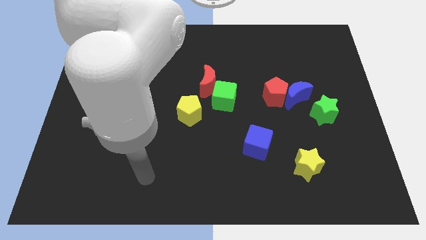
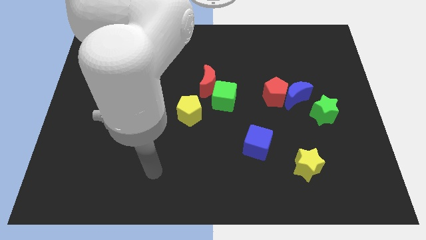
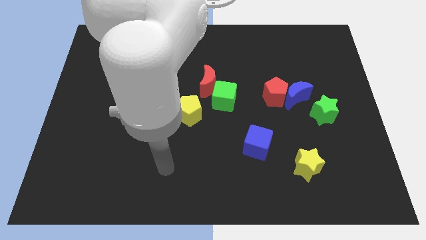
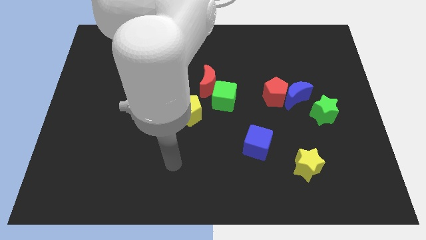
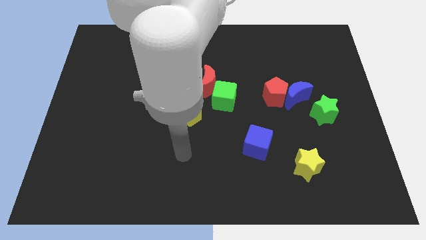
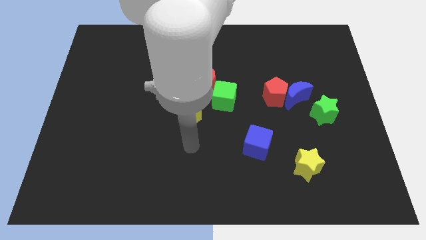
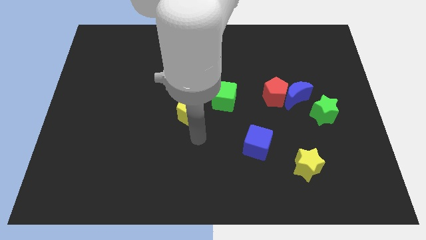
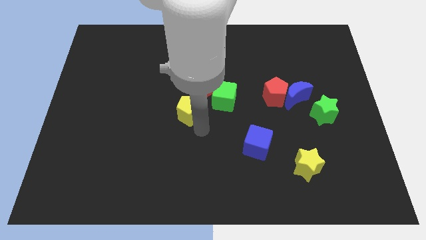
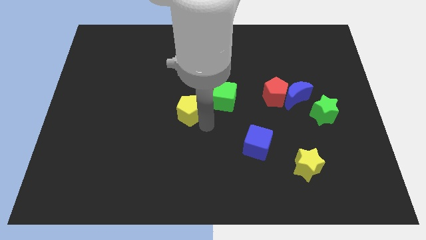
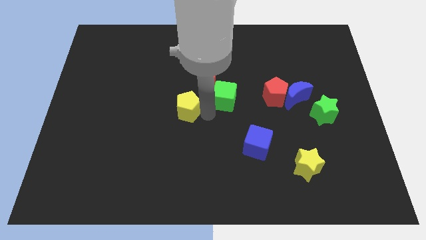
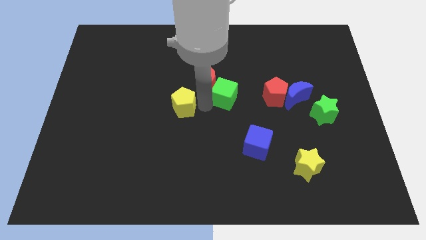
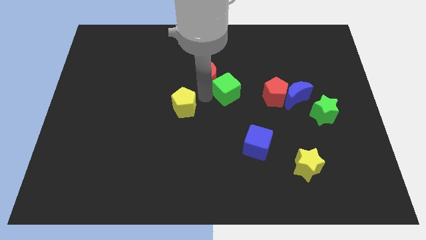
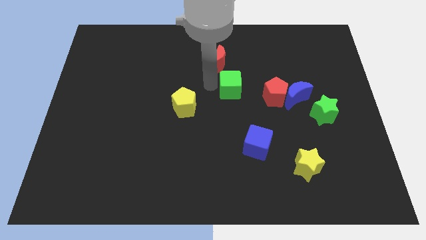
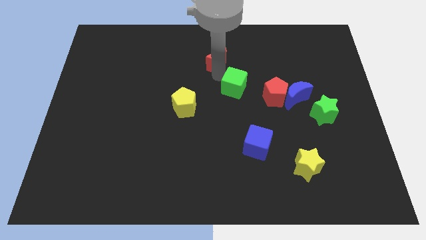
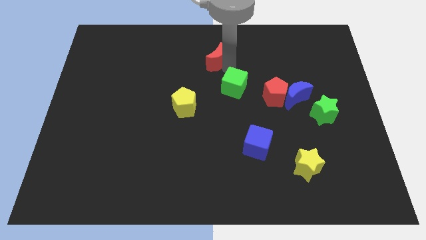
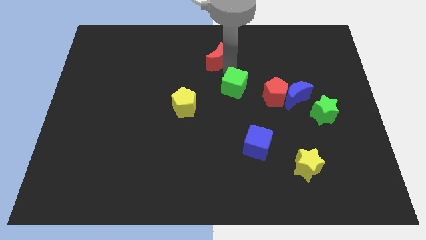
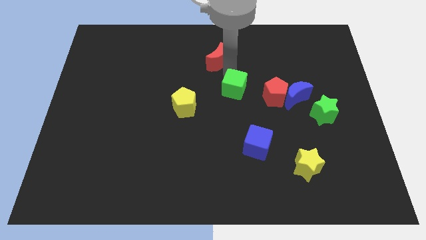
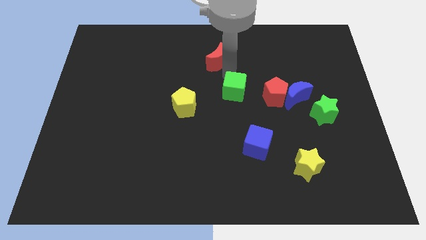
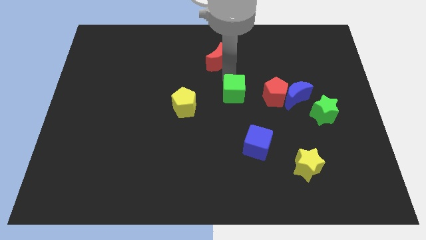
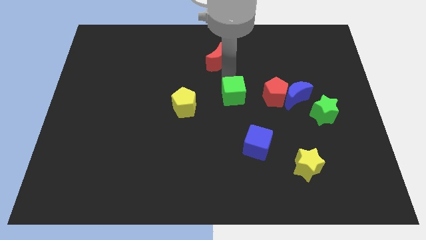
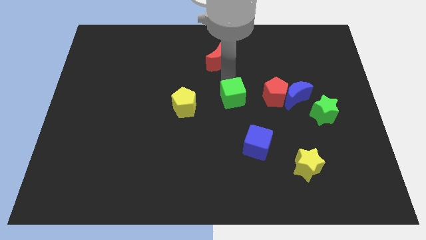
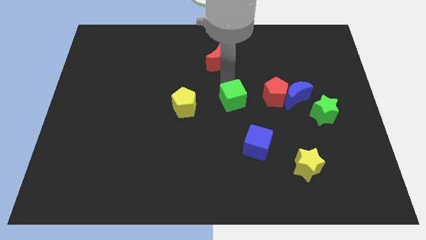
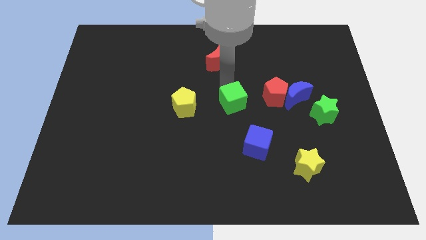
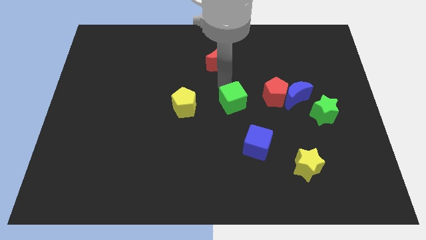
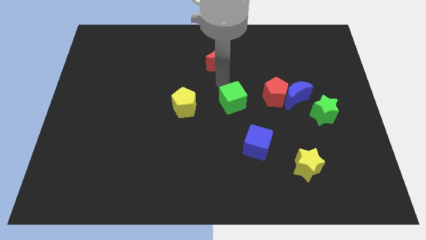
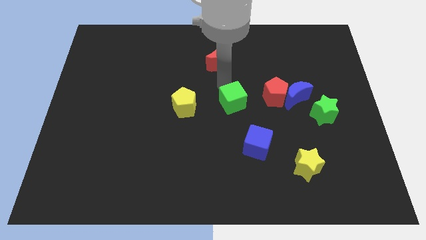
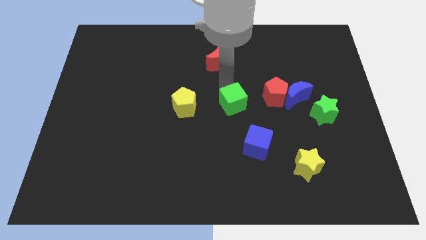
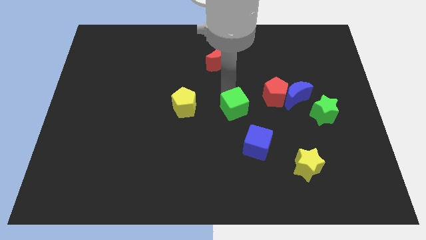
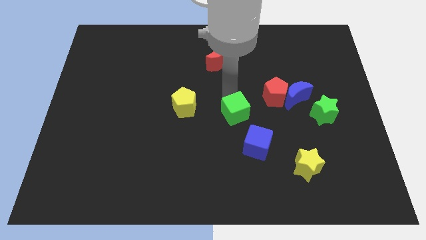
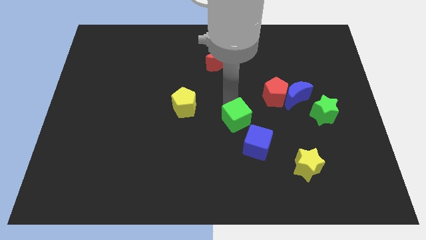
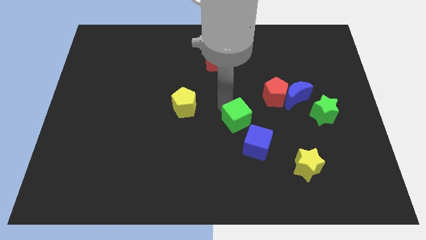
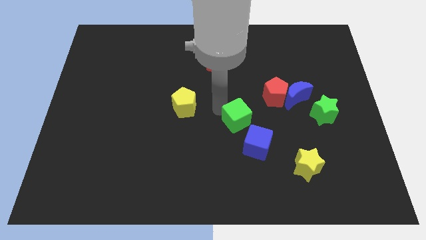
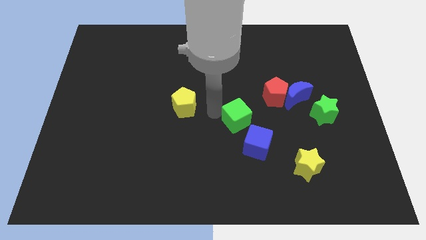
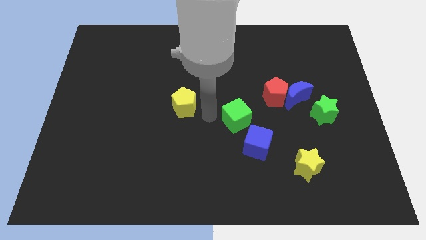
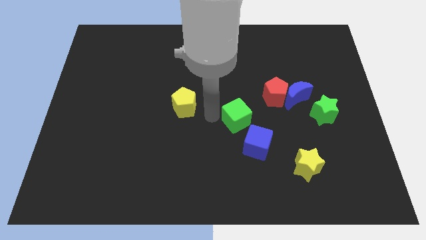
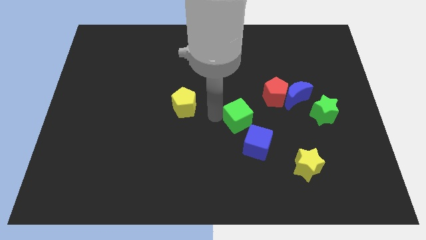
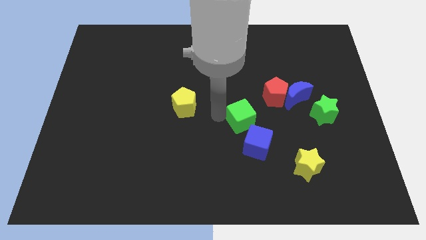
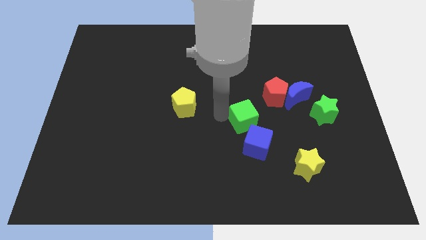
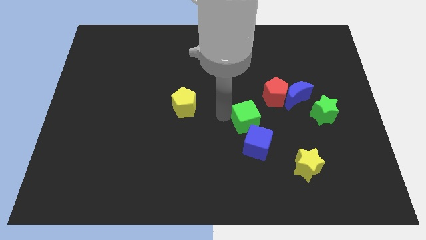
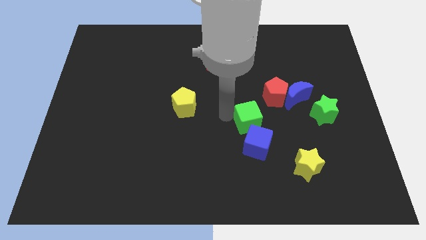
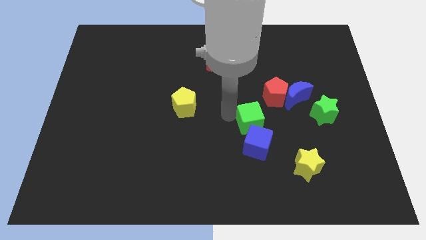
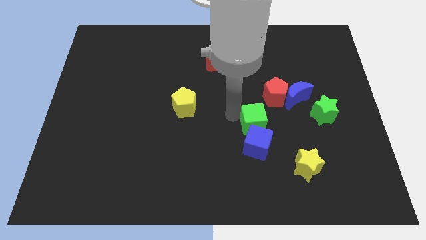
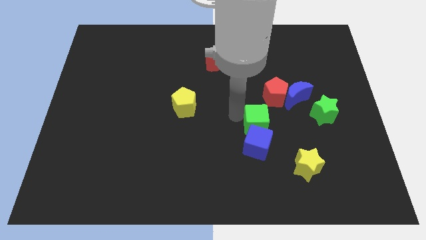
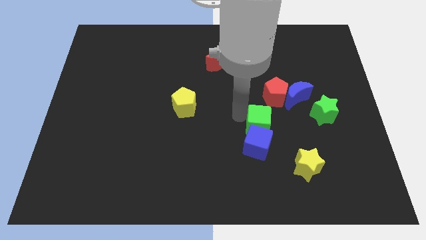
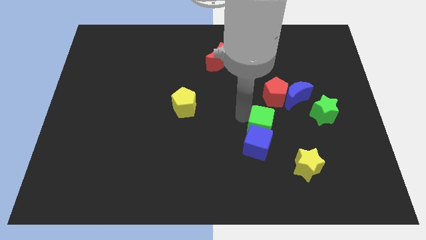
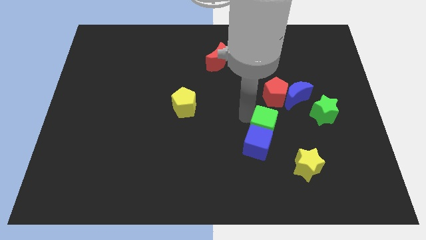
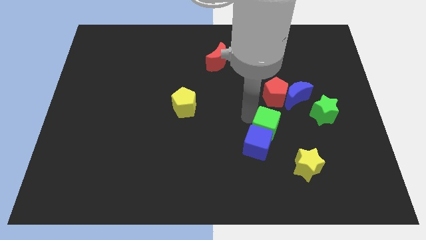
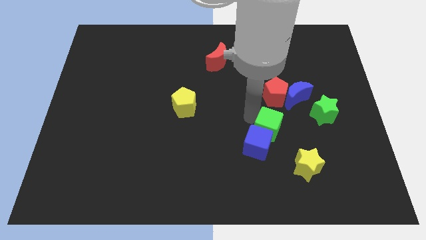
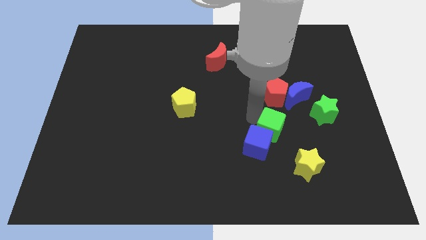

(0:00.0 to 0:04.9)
move the green cube to the right of the blue cube

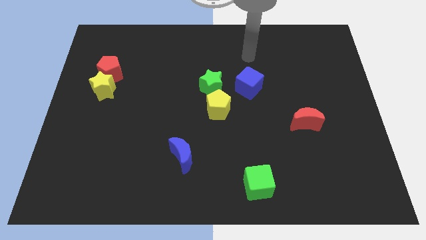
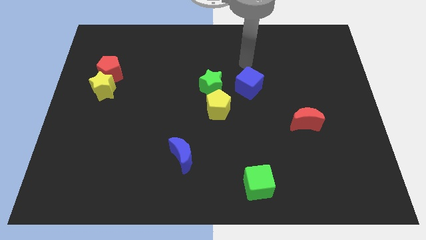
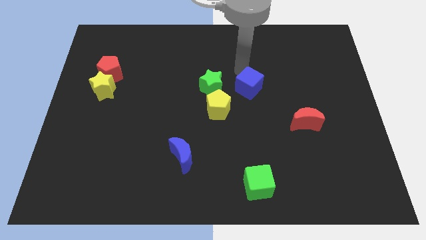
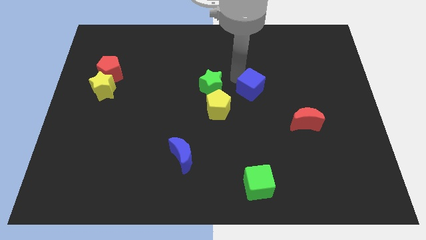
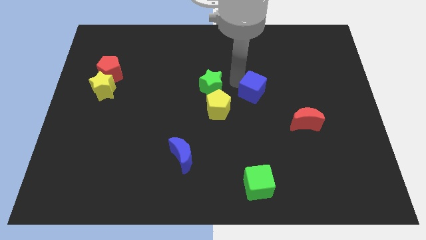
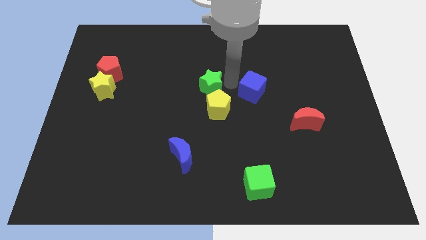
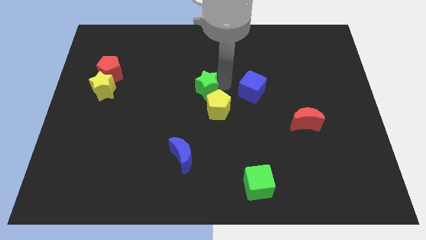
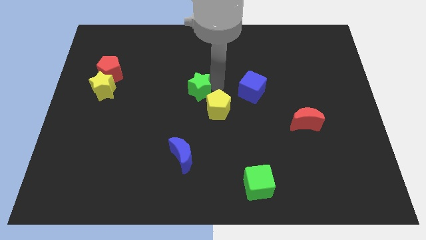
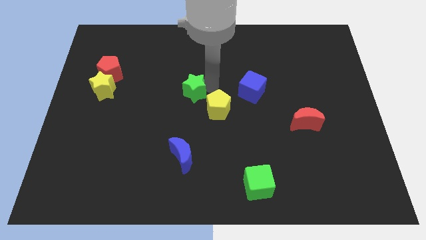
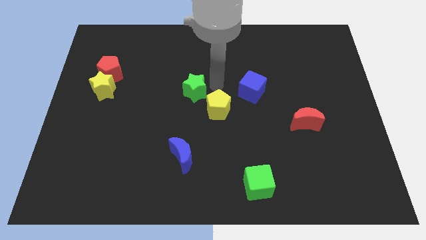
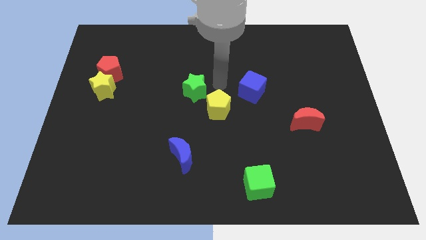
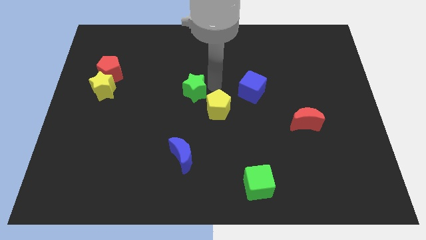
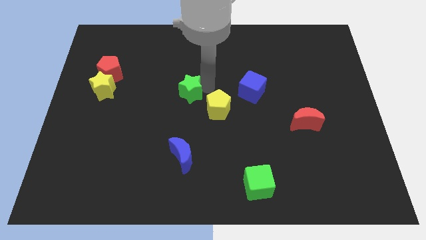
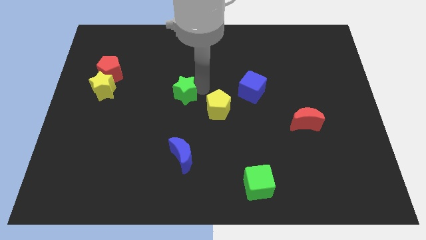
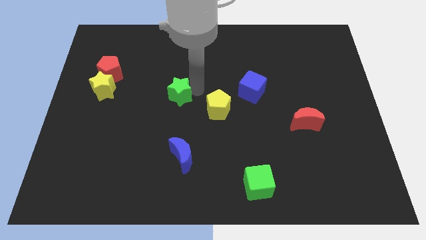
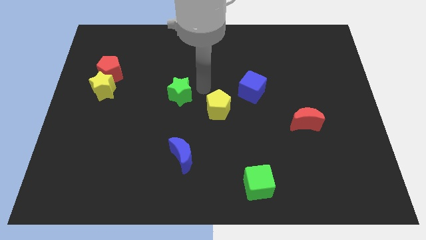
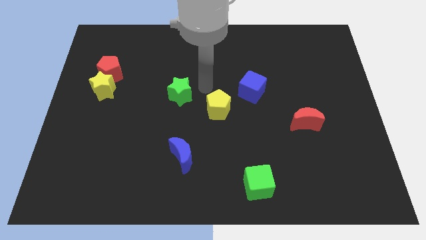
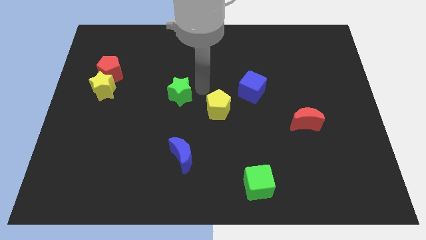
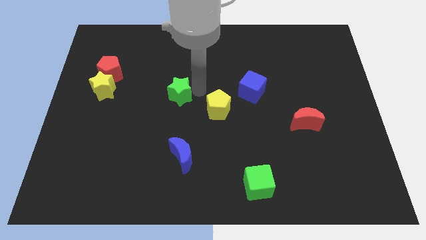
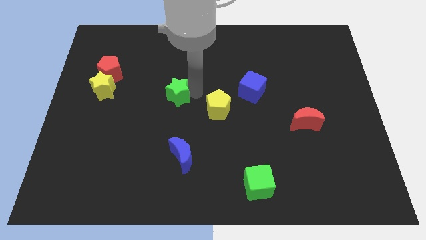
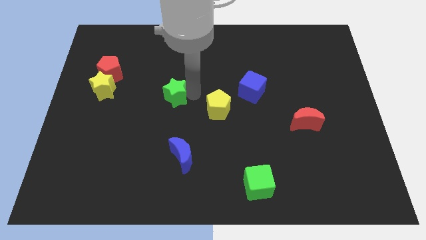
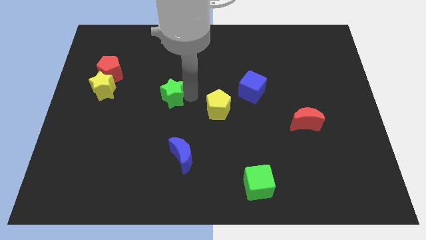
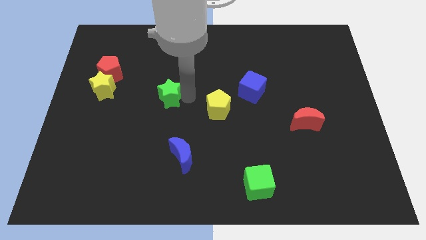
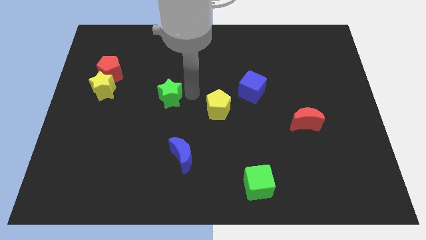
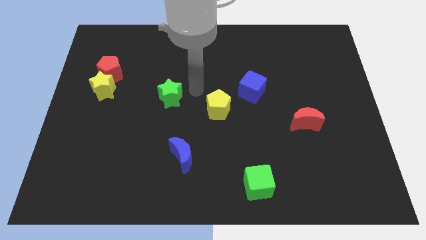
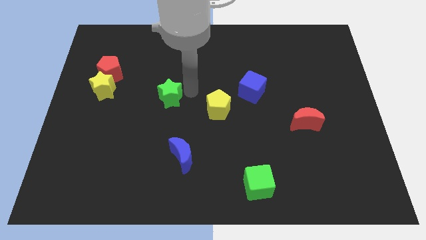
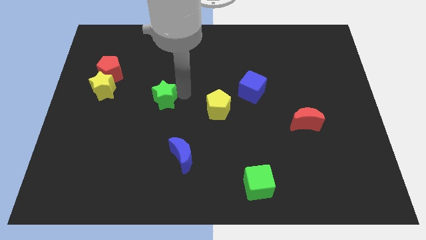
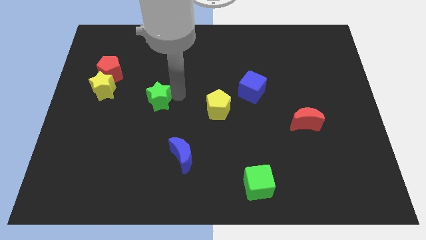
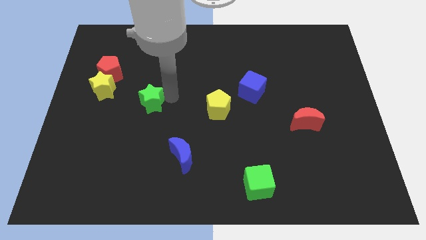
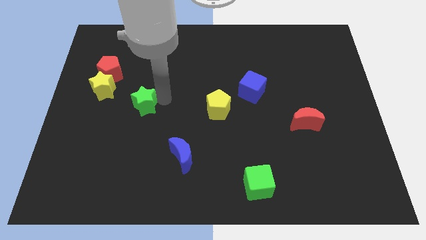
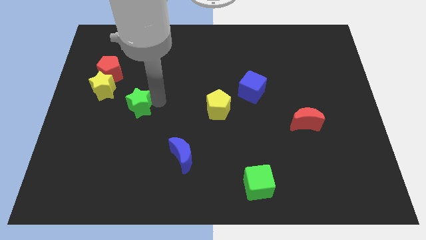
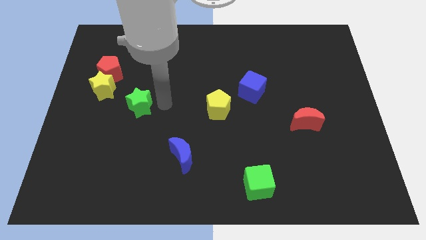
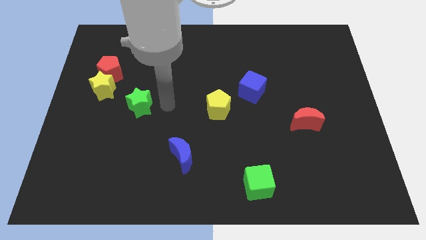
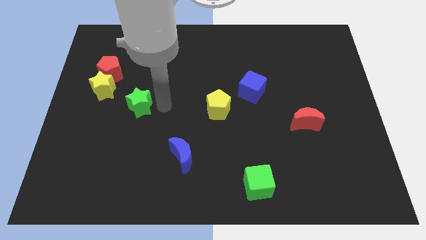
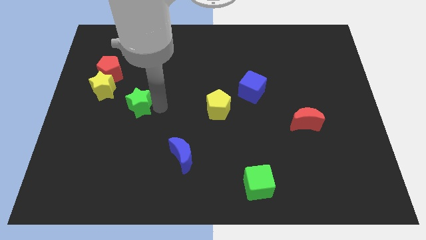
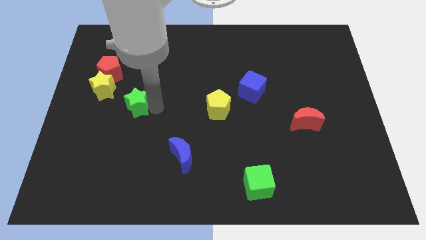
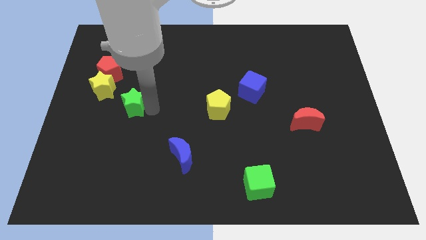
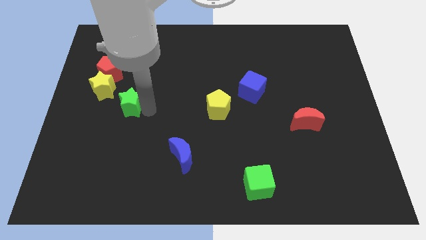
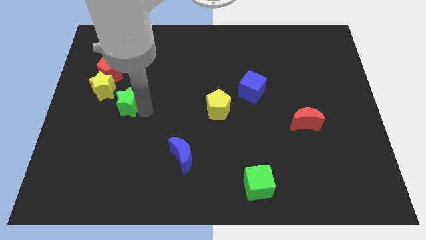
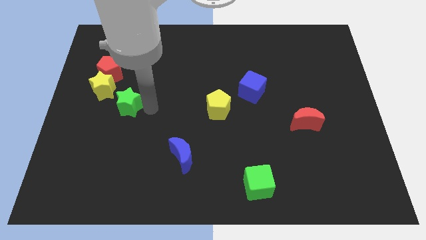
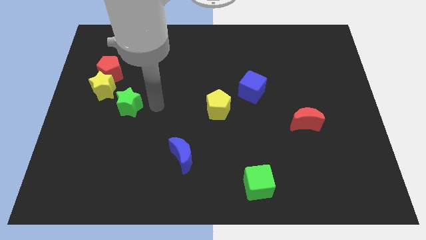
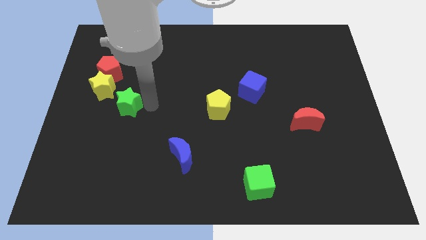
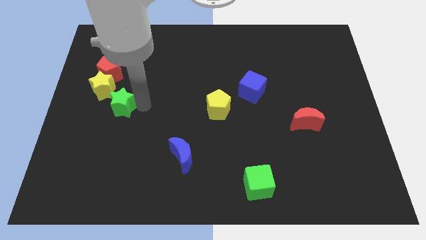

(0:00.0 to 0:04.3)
put the green star to the bottom side of the red pentagon
